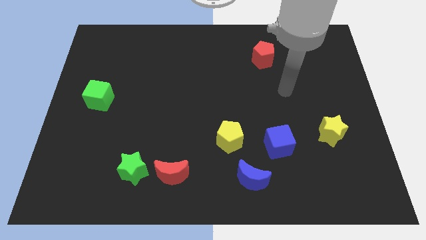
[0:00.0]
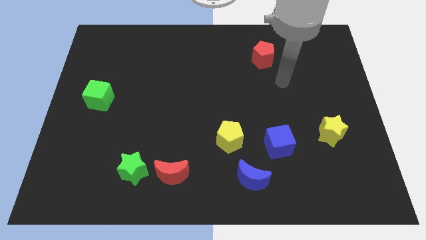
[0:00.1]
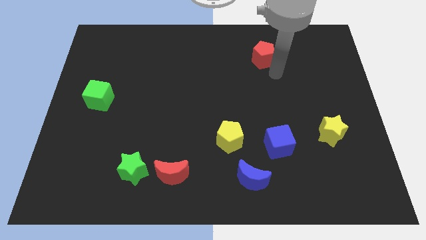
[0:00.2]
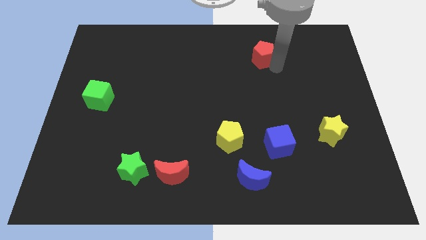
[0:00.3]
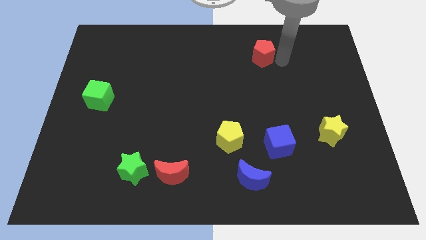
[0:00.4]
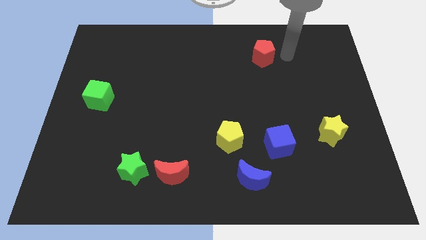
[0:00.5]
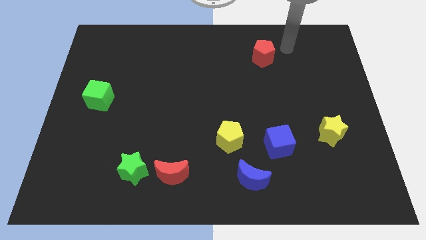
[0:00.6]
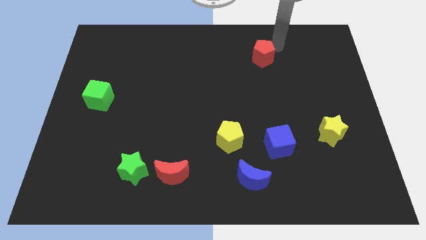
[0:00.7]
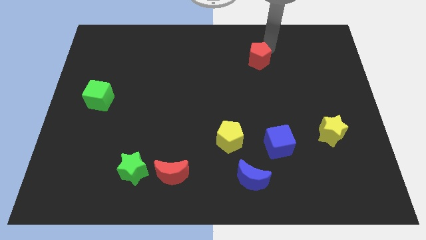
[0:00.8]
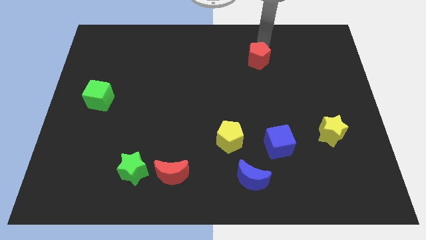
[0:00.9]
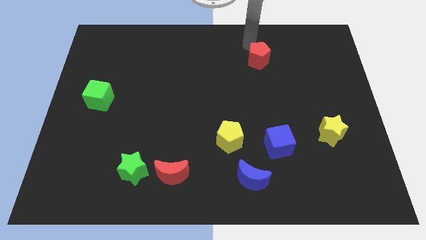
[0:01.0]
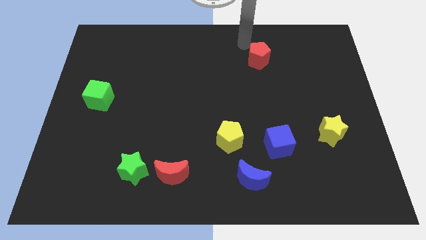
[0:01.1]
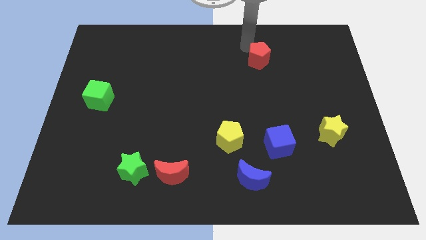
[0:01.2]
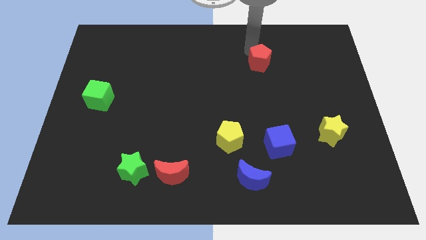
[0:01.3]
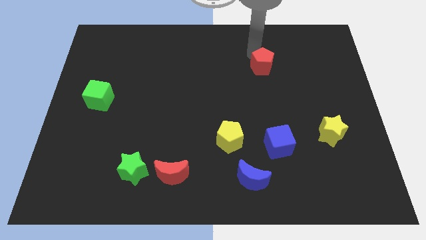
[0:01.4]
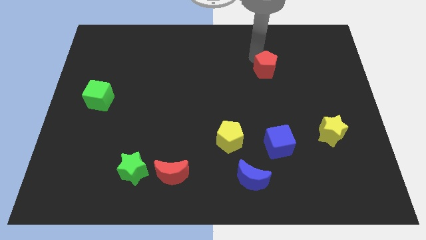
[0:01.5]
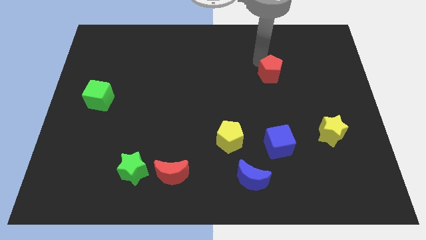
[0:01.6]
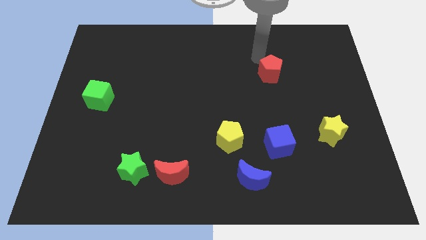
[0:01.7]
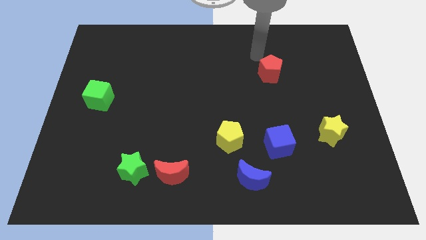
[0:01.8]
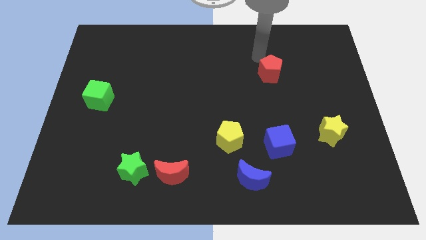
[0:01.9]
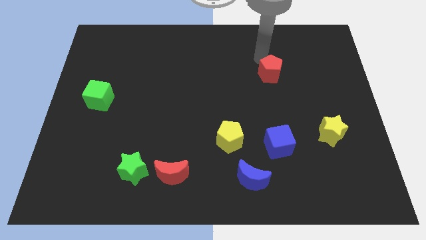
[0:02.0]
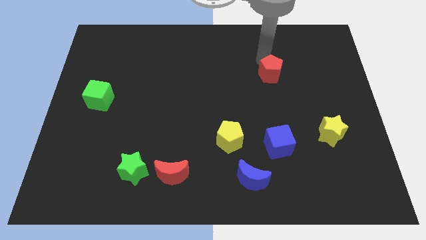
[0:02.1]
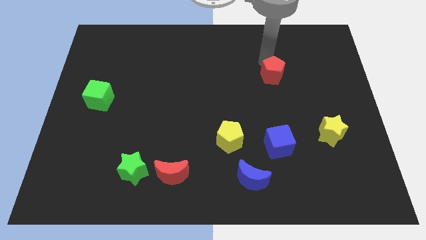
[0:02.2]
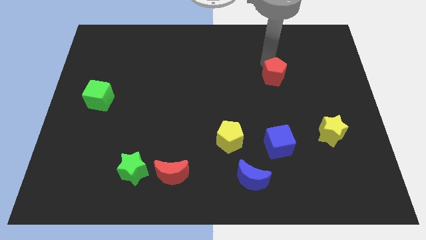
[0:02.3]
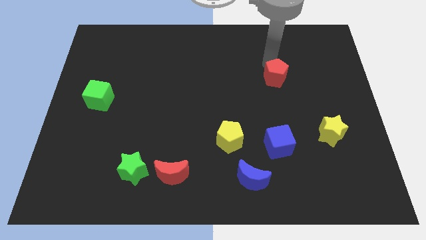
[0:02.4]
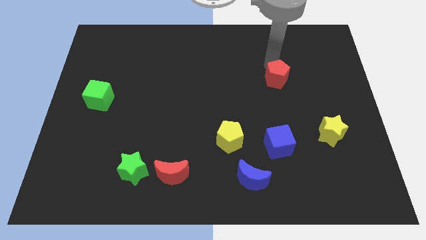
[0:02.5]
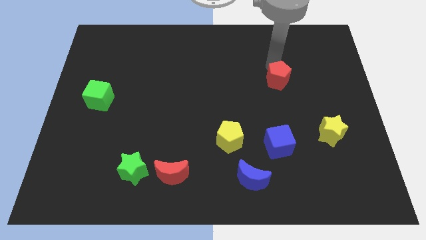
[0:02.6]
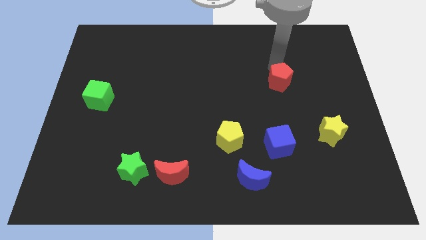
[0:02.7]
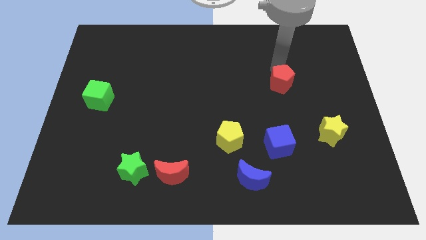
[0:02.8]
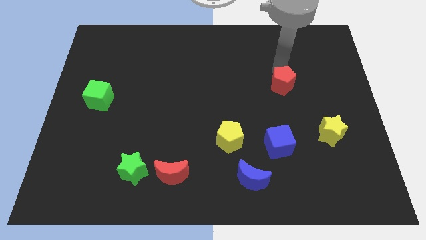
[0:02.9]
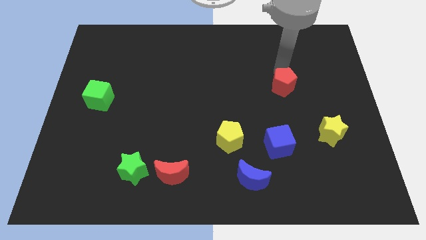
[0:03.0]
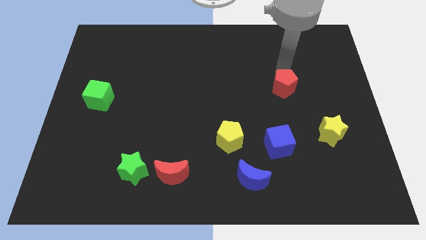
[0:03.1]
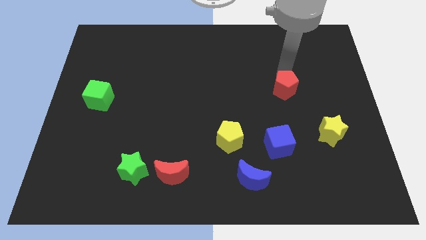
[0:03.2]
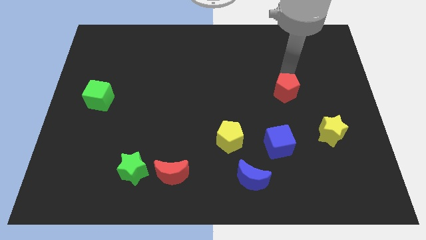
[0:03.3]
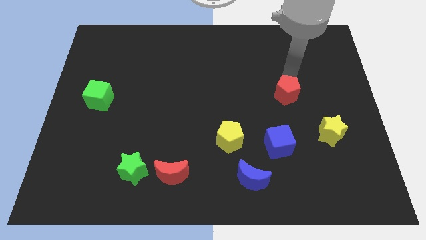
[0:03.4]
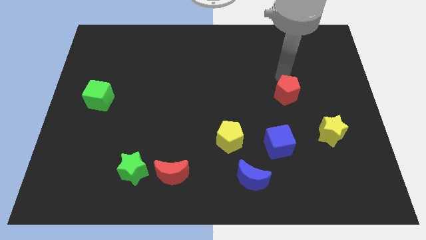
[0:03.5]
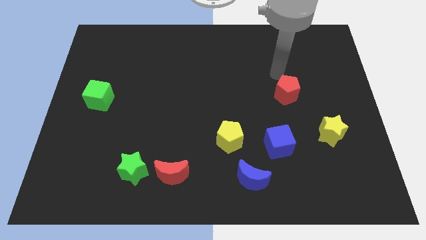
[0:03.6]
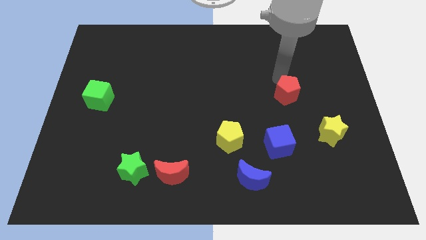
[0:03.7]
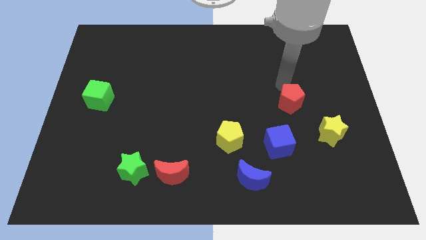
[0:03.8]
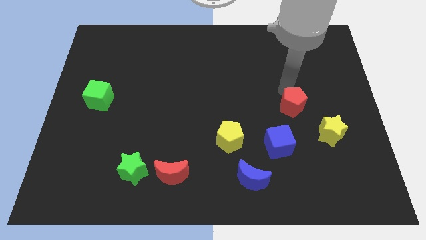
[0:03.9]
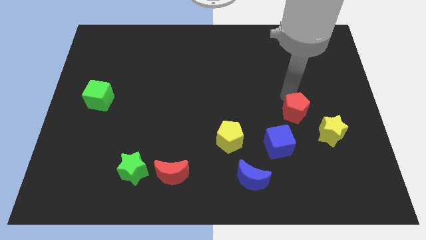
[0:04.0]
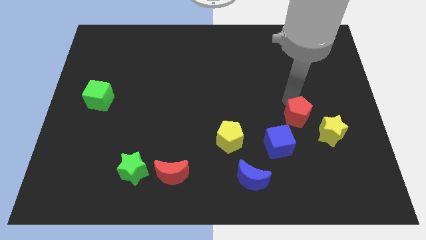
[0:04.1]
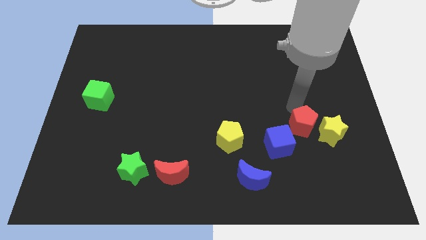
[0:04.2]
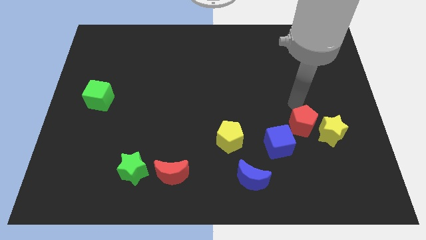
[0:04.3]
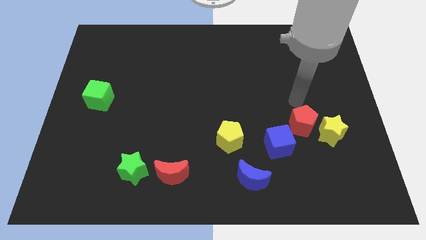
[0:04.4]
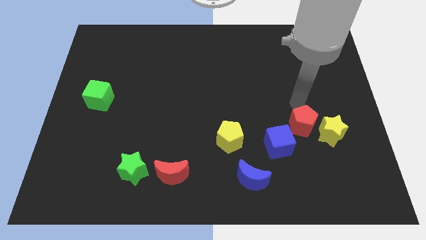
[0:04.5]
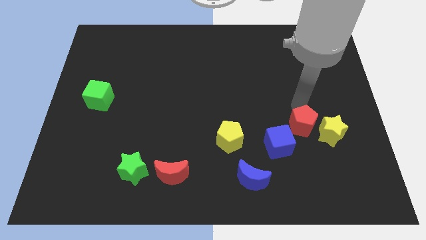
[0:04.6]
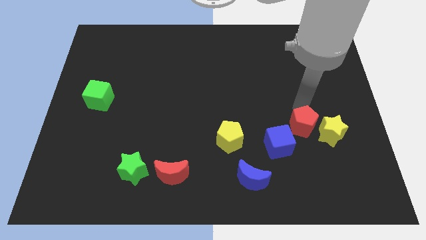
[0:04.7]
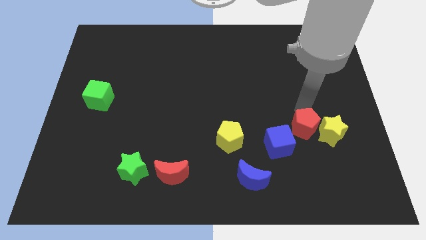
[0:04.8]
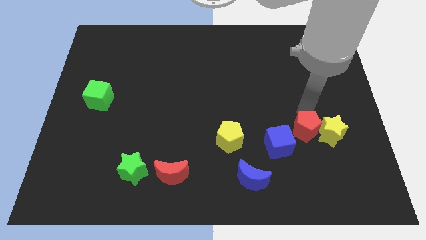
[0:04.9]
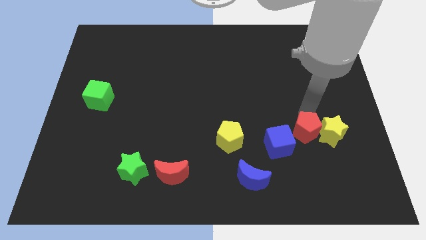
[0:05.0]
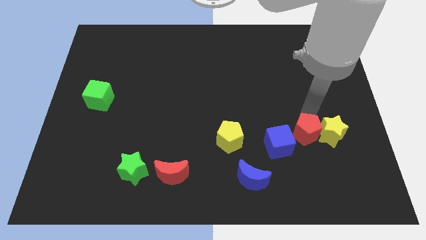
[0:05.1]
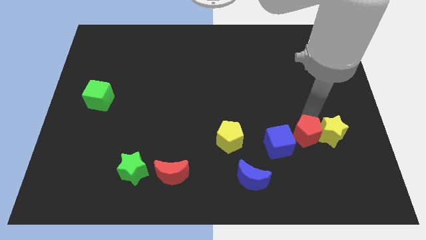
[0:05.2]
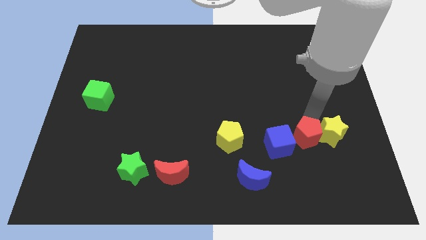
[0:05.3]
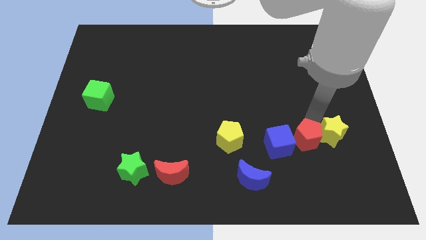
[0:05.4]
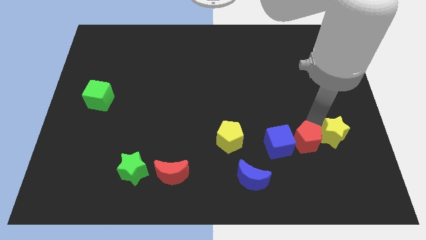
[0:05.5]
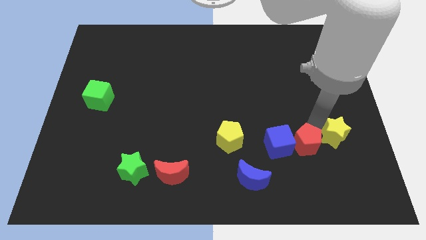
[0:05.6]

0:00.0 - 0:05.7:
slide the red pentagon to the bottom right side of the blue cube

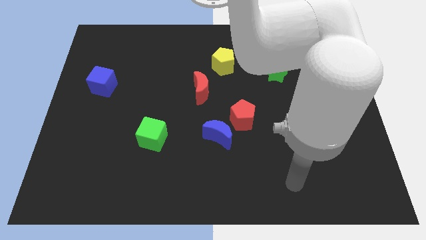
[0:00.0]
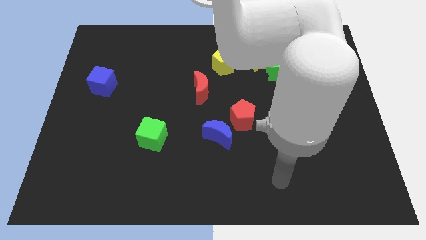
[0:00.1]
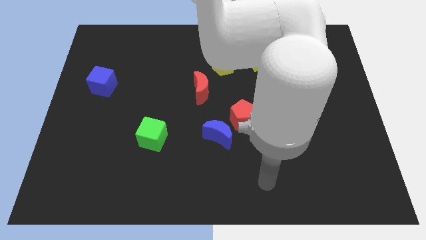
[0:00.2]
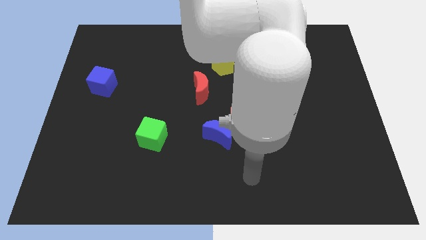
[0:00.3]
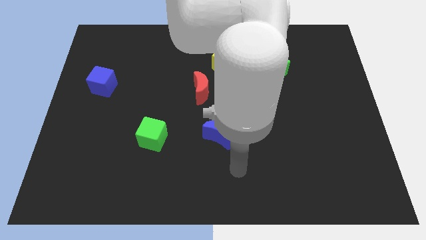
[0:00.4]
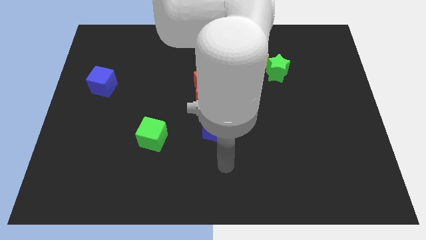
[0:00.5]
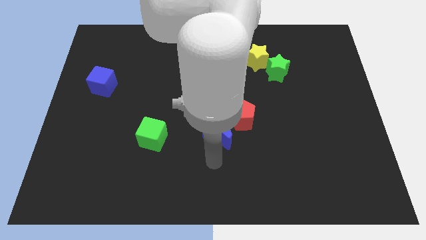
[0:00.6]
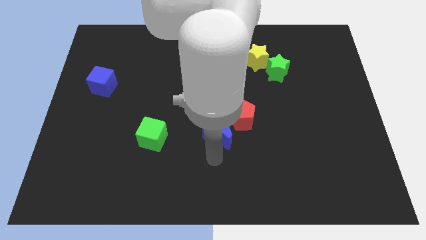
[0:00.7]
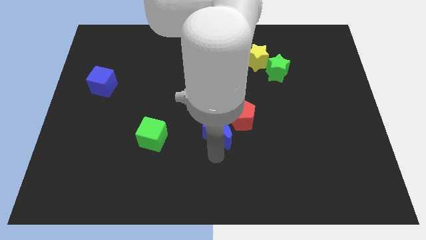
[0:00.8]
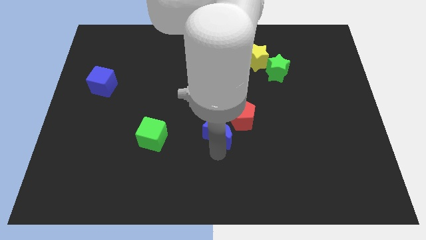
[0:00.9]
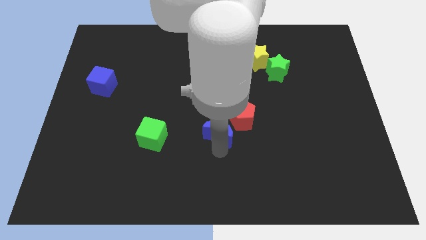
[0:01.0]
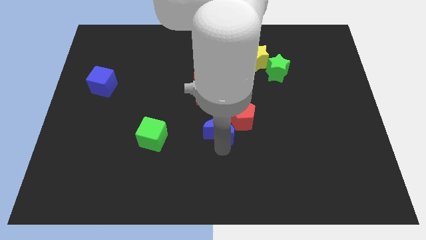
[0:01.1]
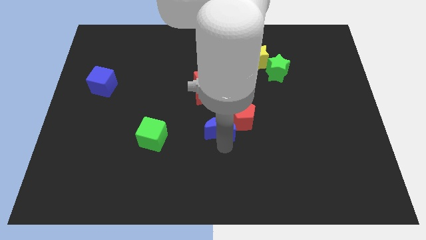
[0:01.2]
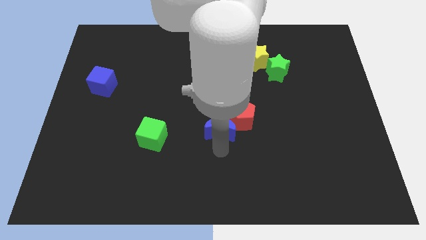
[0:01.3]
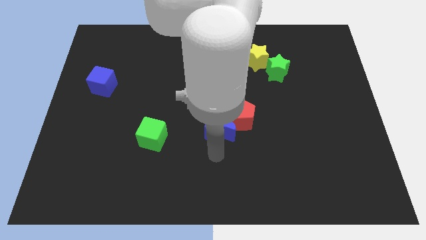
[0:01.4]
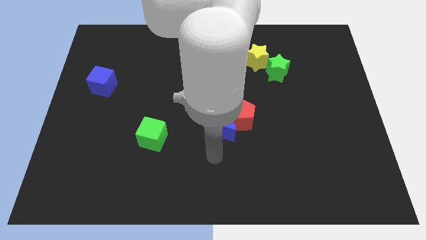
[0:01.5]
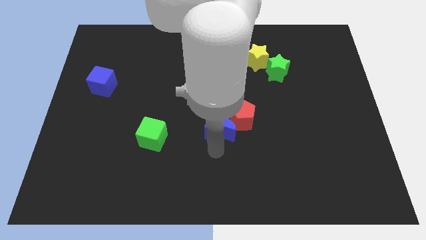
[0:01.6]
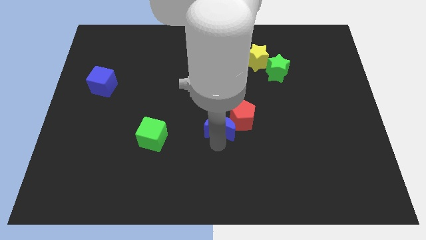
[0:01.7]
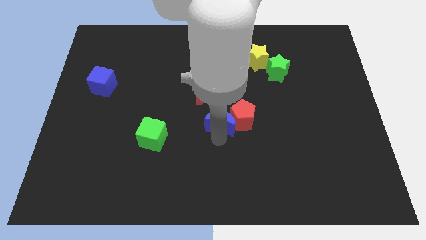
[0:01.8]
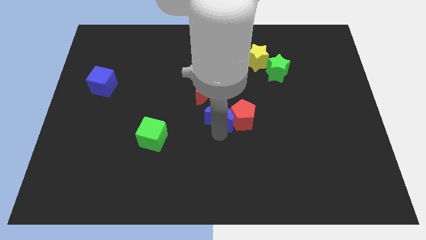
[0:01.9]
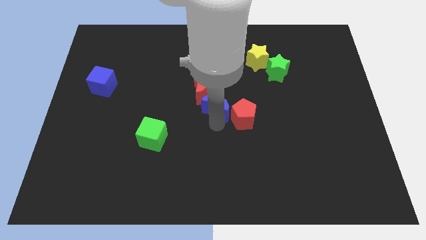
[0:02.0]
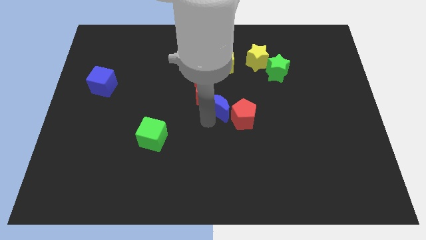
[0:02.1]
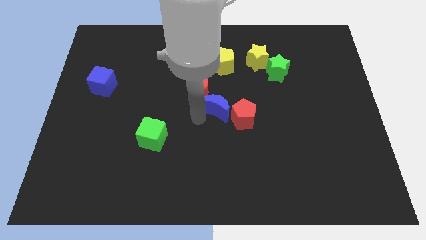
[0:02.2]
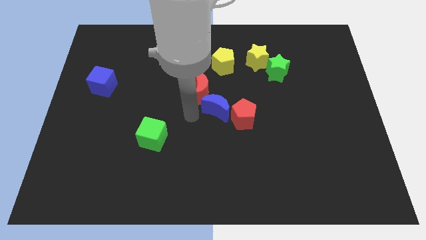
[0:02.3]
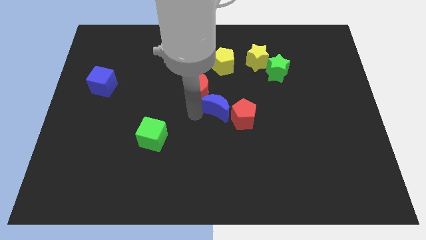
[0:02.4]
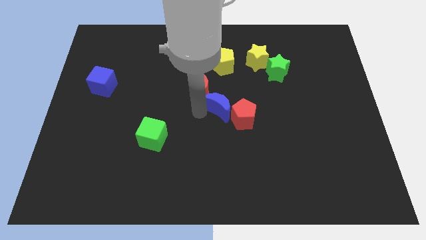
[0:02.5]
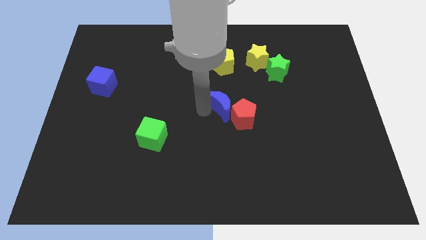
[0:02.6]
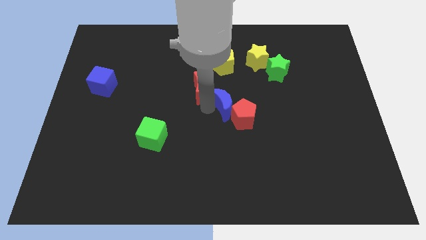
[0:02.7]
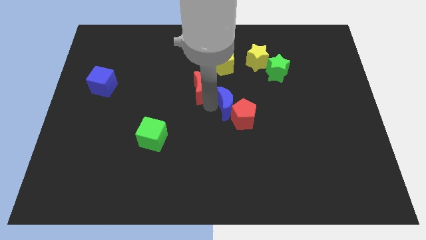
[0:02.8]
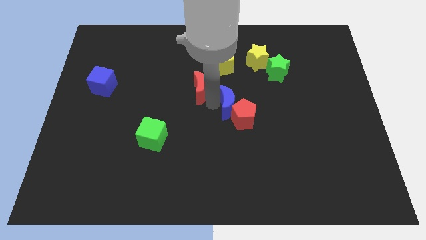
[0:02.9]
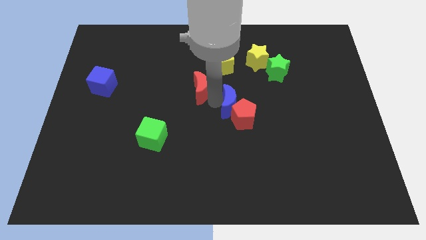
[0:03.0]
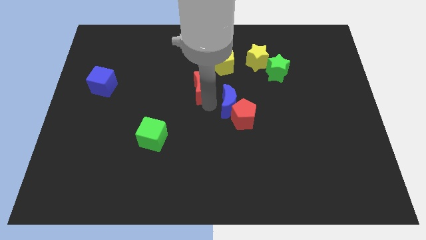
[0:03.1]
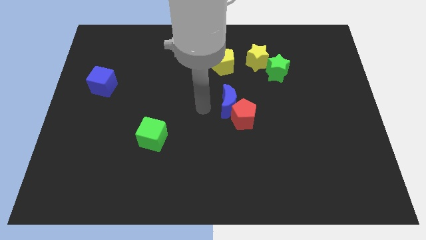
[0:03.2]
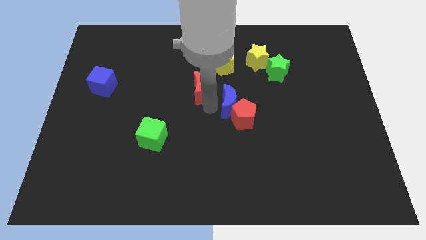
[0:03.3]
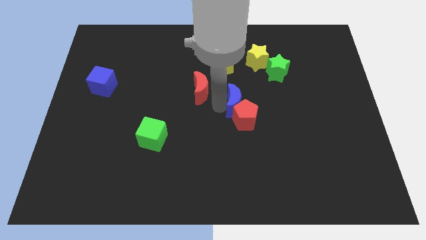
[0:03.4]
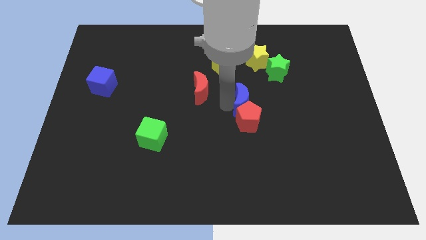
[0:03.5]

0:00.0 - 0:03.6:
put the blue moon to the top right side of the red pentagon
